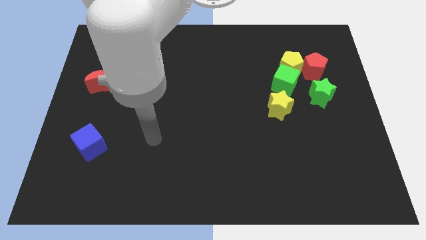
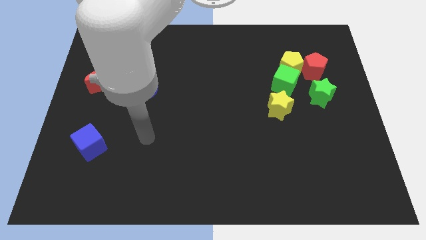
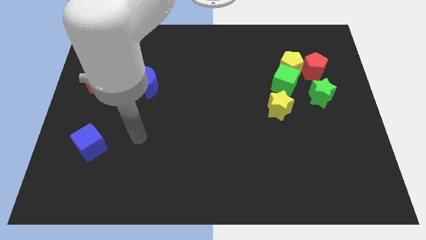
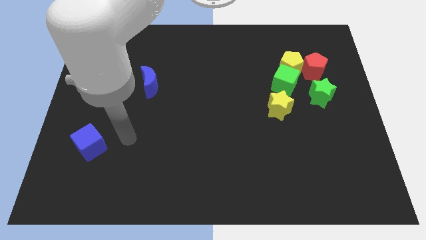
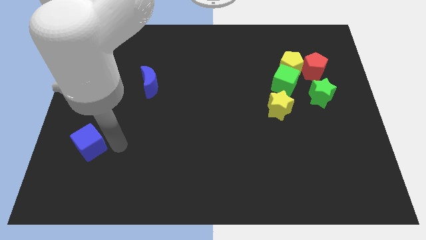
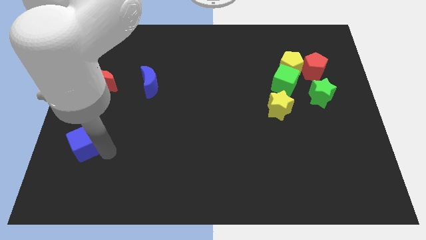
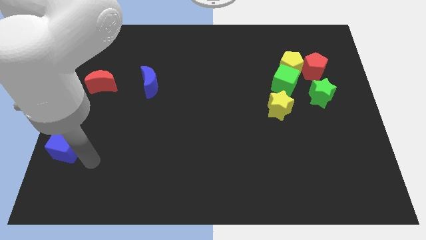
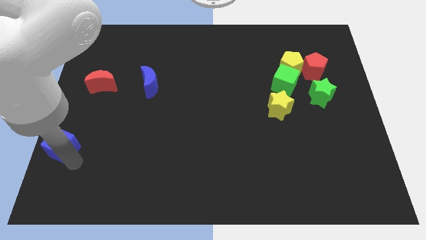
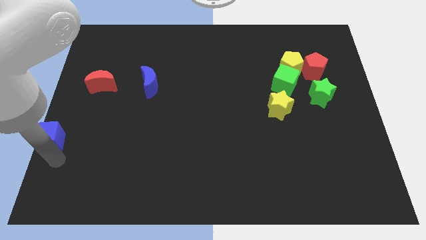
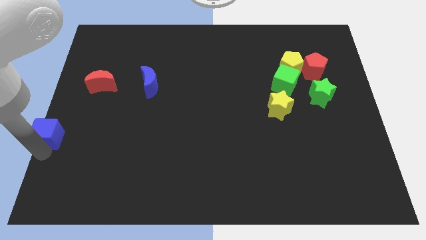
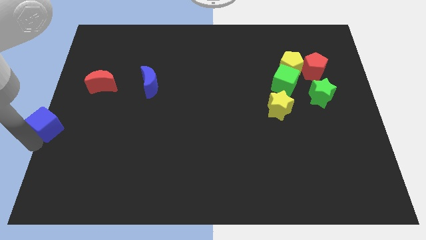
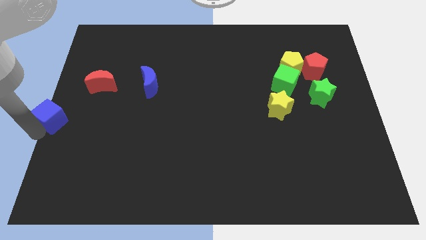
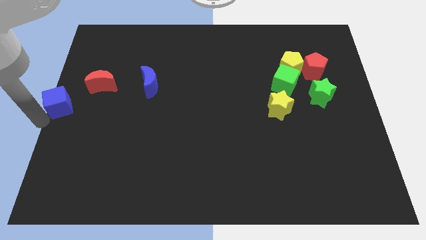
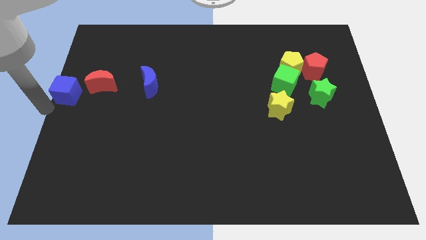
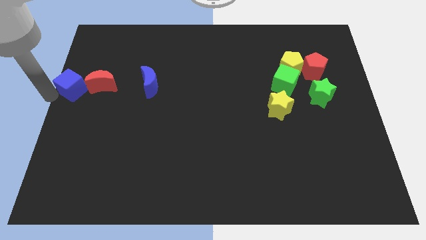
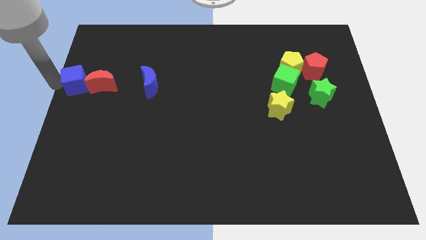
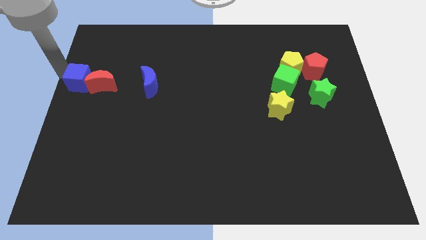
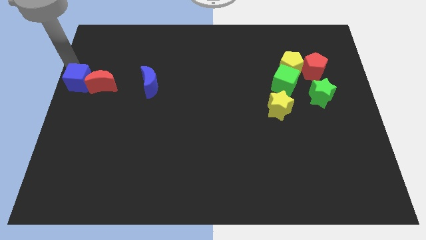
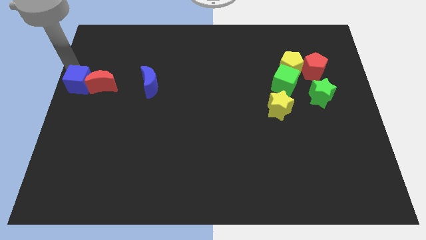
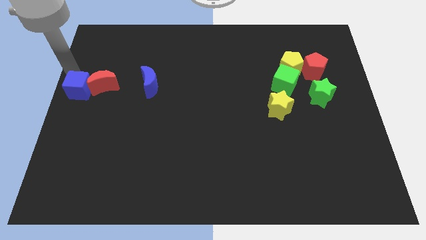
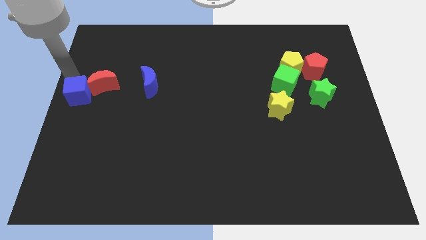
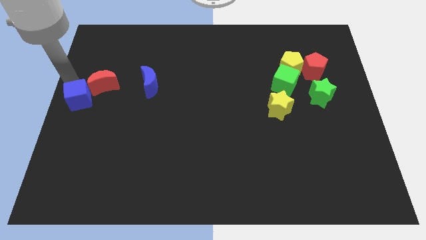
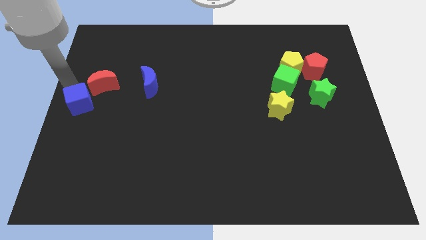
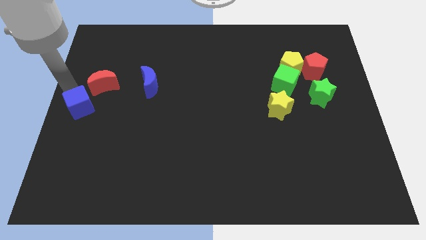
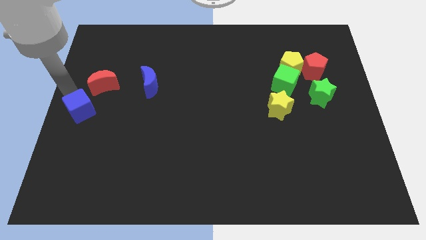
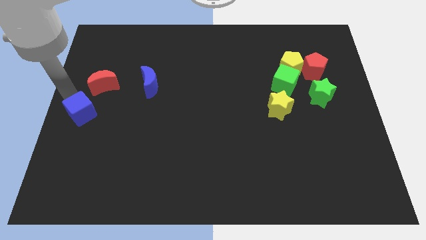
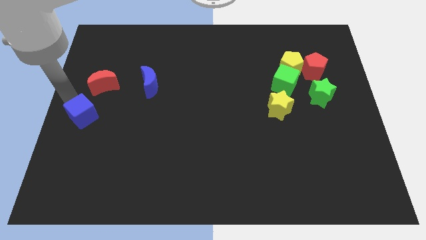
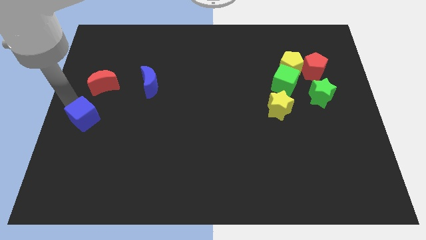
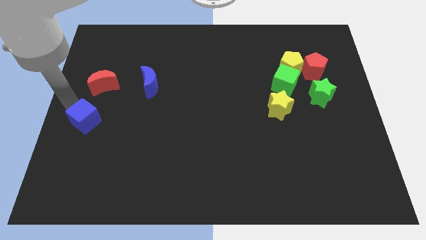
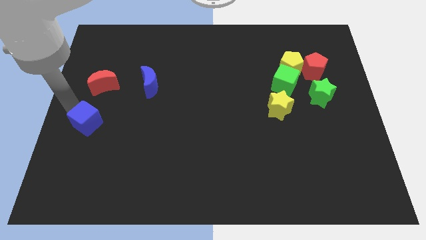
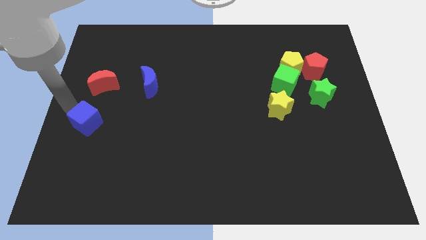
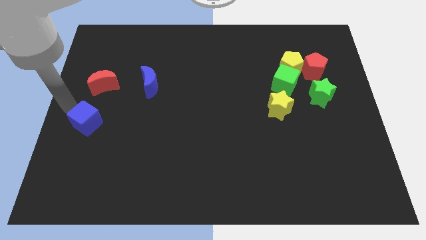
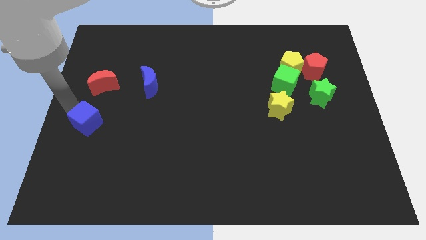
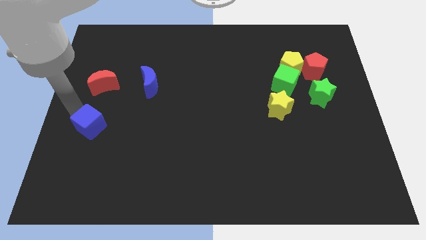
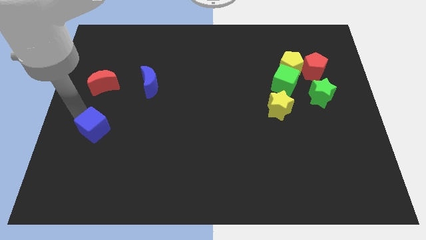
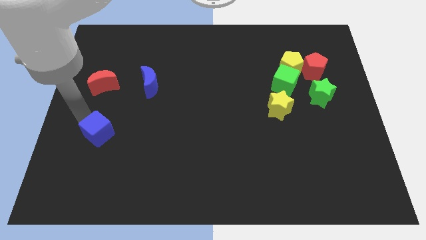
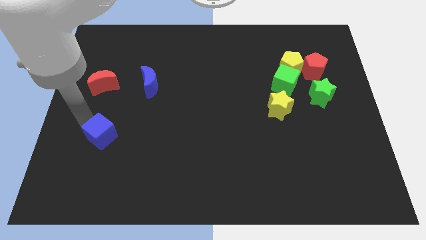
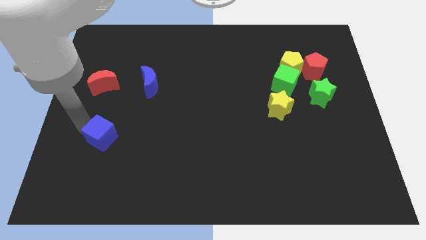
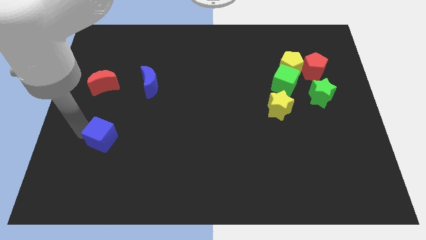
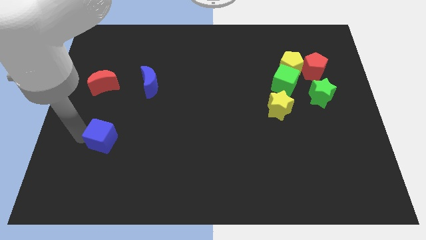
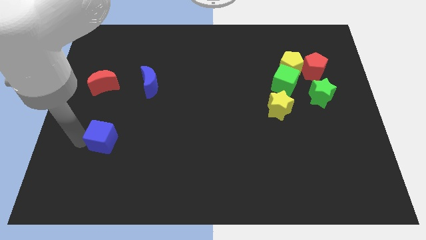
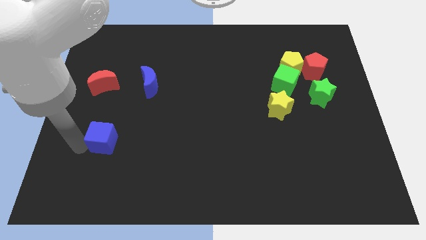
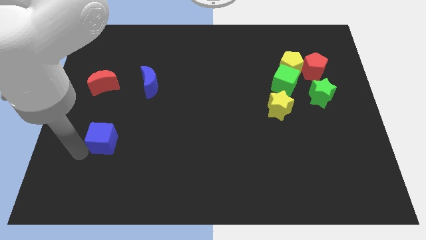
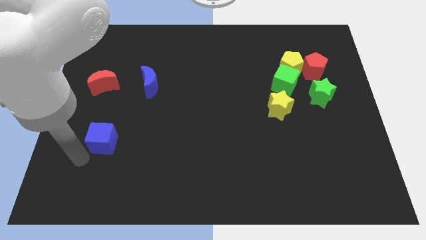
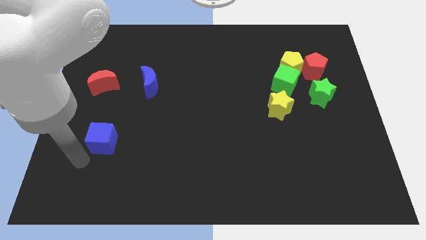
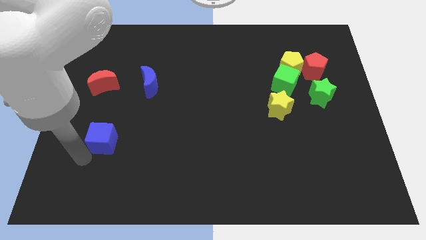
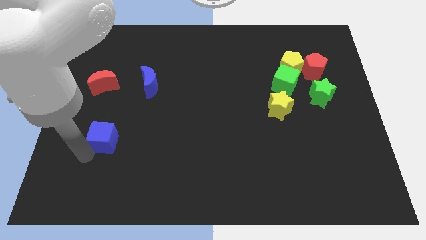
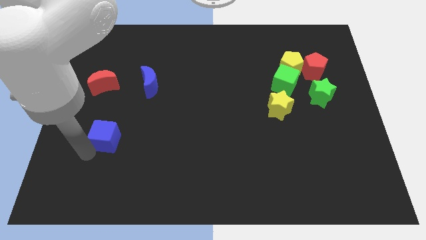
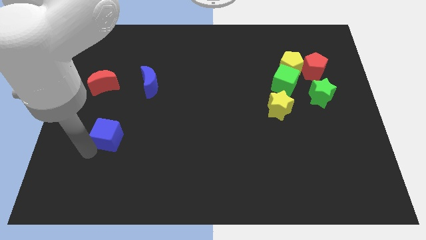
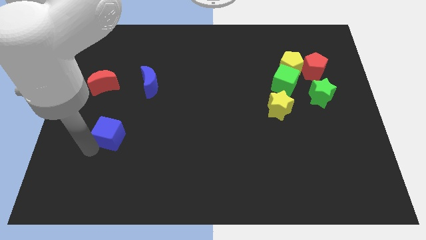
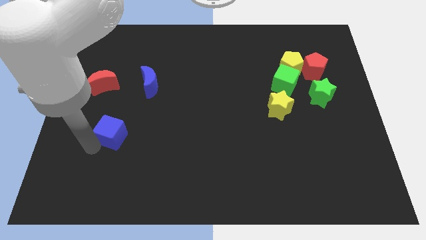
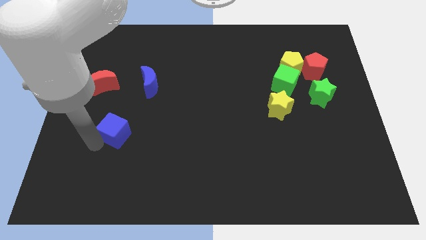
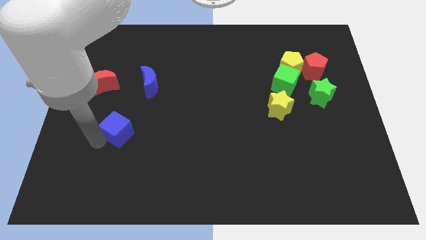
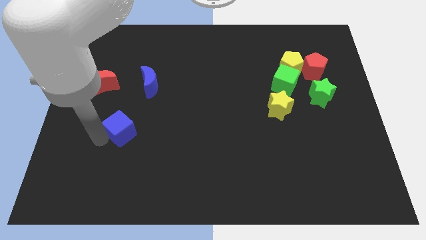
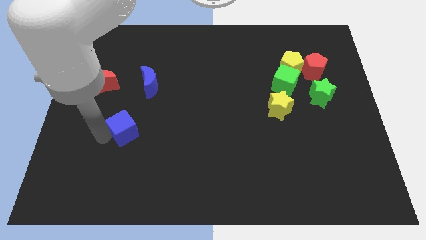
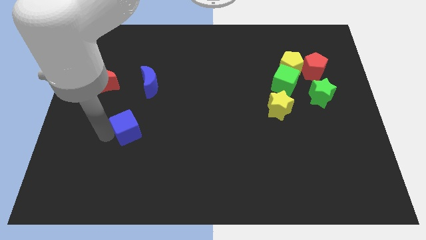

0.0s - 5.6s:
put the blue cube to the bottom side of the blue moon

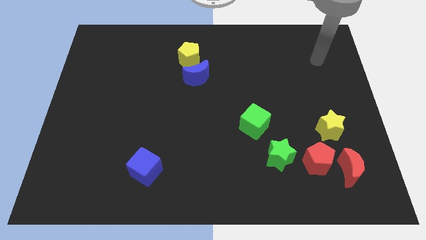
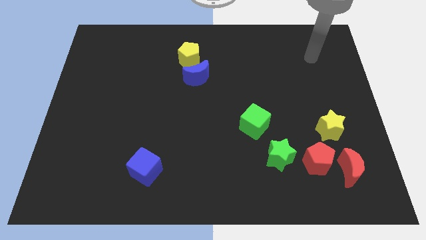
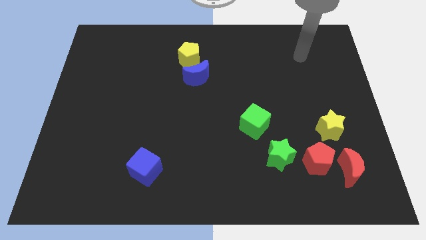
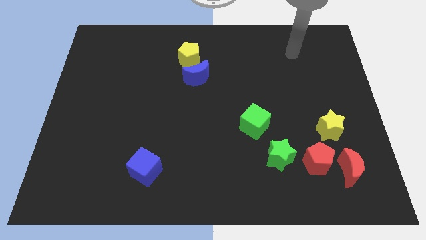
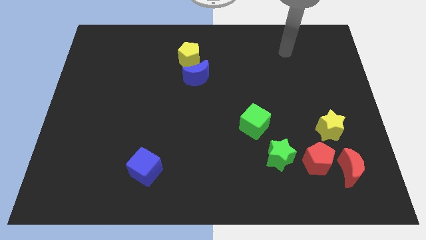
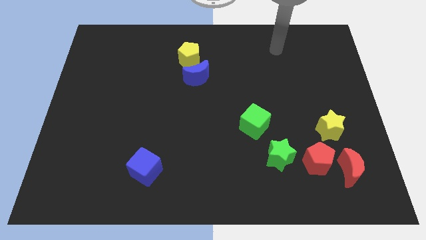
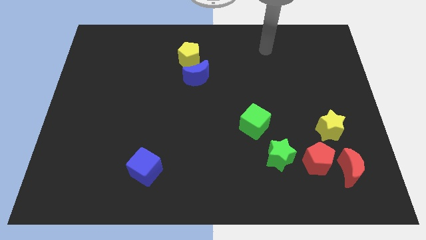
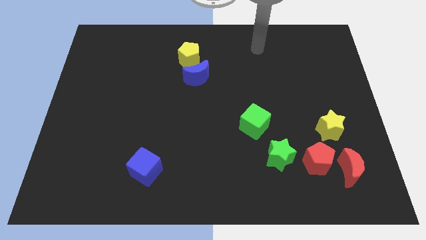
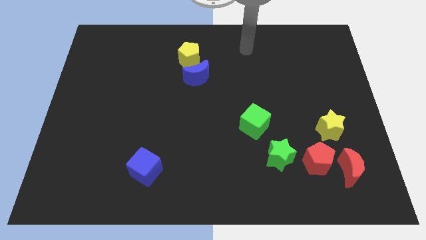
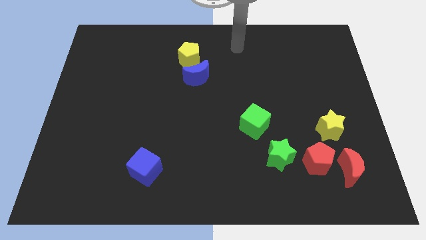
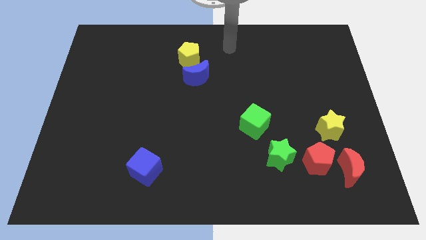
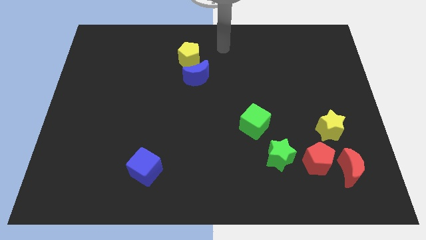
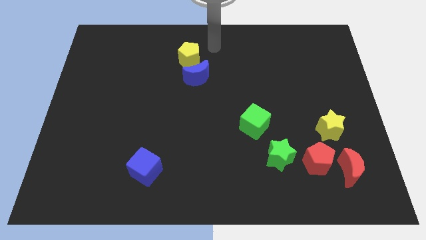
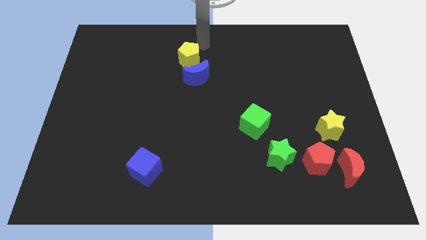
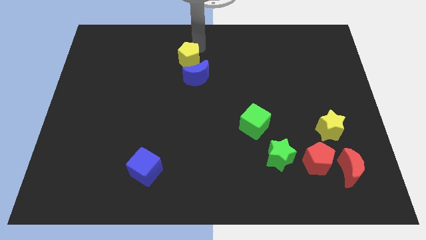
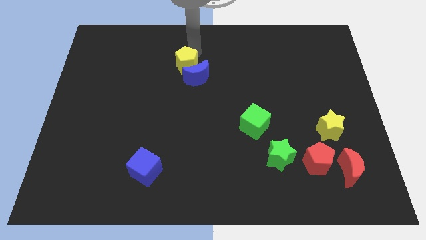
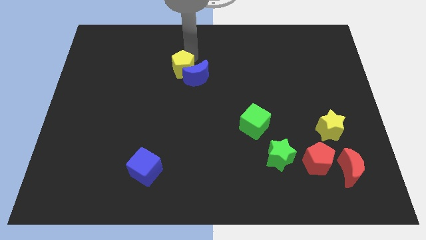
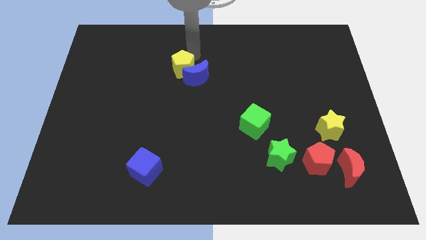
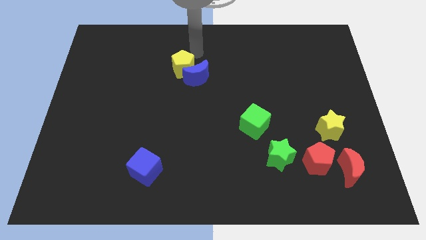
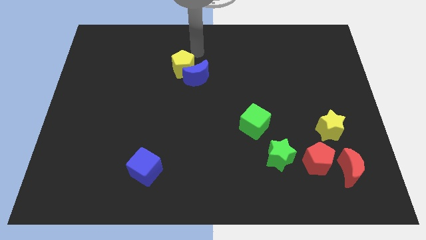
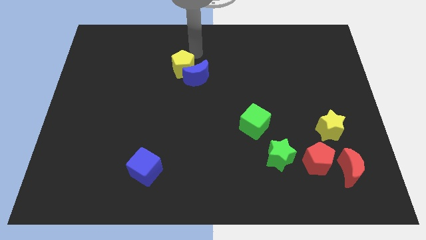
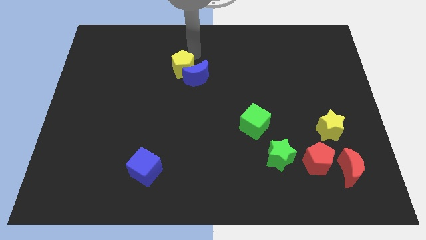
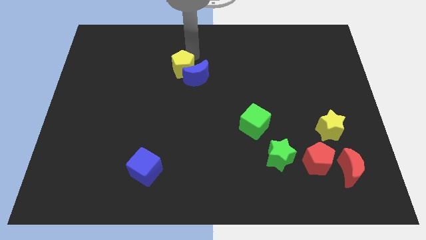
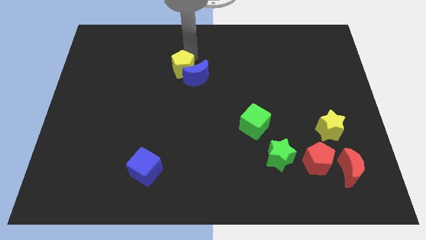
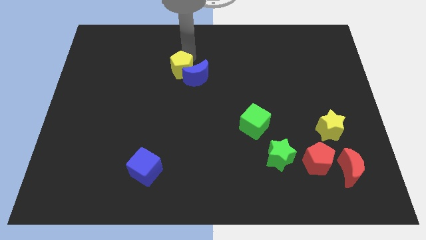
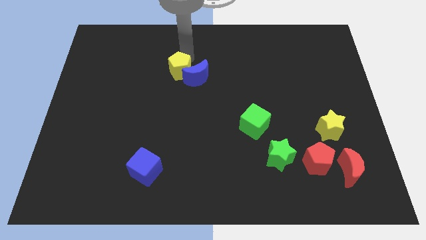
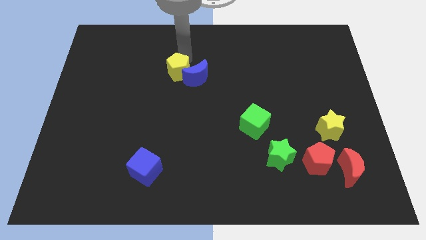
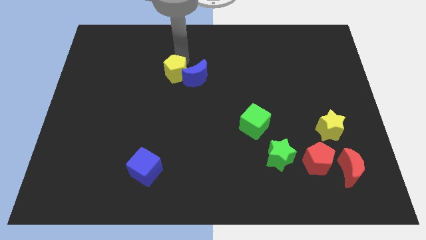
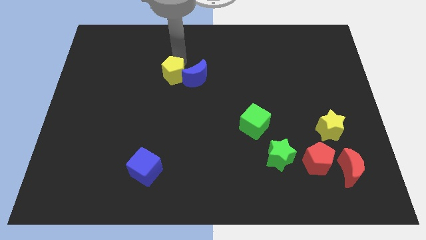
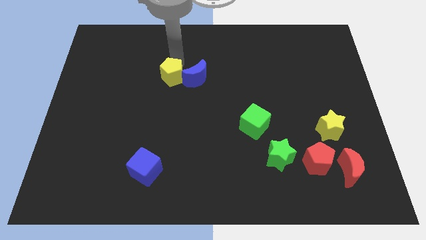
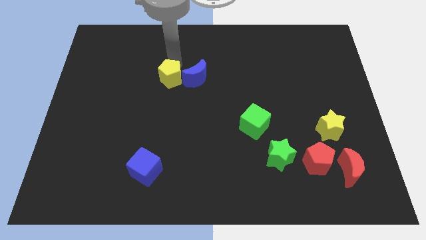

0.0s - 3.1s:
put the yellow pentagon diagonally down and to the left of the blue moon
